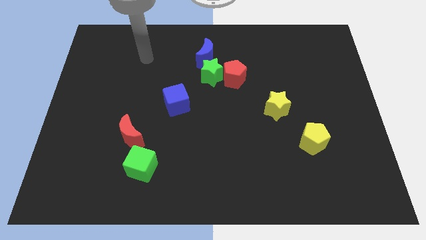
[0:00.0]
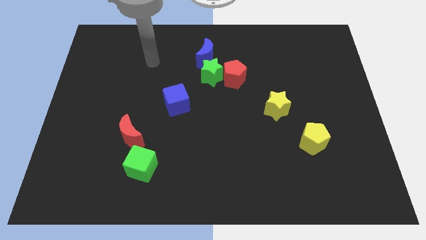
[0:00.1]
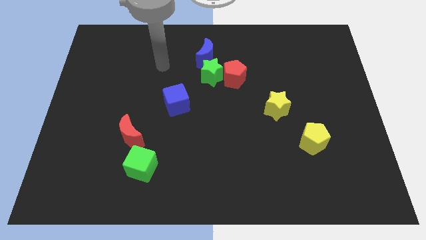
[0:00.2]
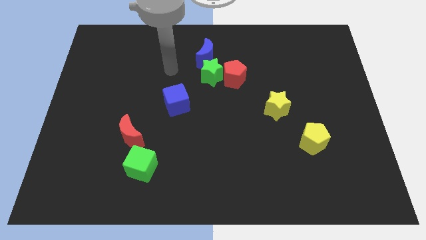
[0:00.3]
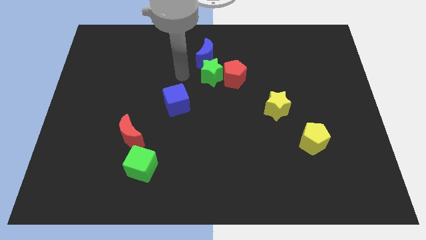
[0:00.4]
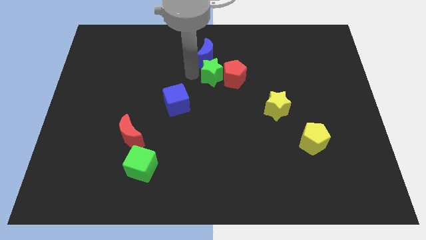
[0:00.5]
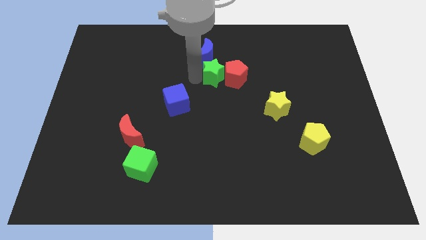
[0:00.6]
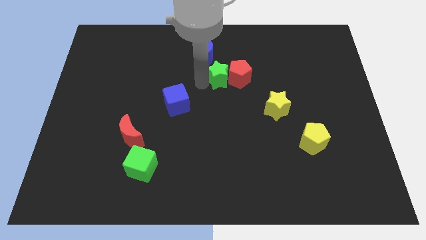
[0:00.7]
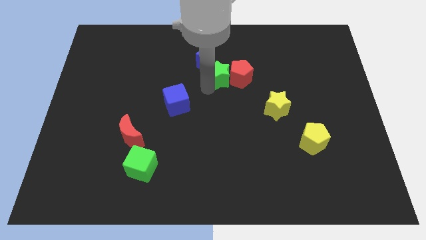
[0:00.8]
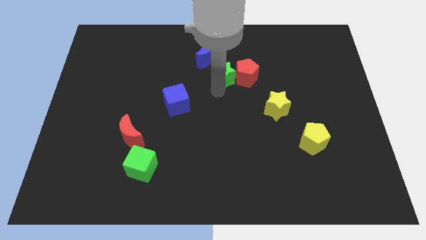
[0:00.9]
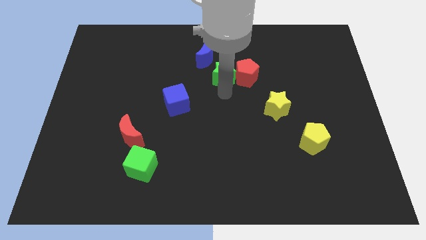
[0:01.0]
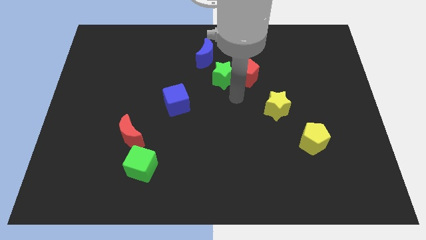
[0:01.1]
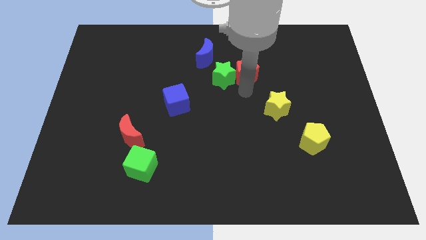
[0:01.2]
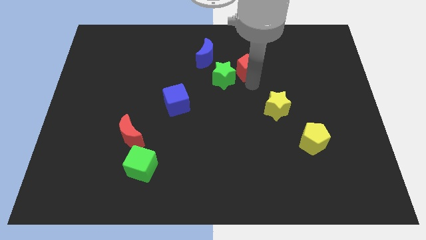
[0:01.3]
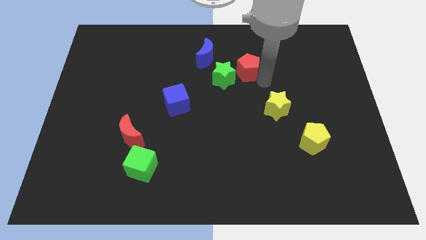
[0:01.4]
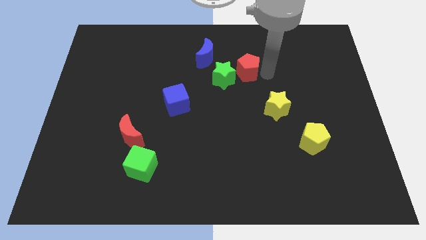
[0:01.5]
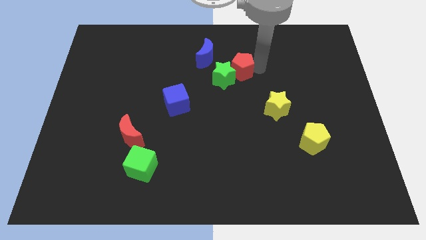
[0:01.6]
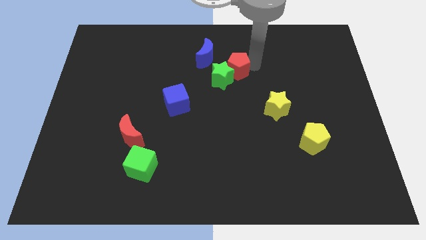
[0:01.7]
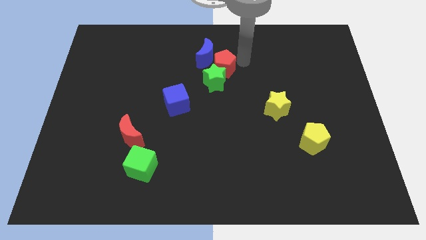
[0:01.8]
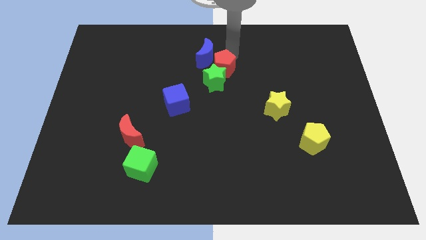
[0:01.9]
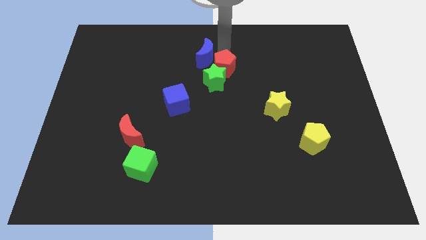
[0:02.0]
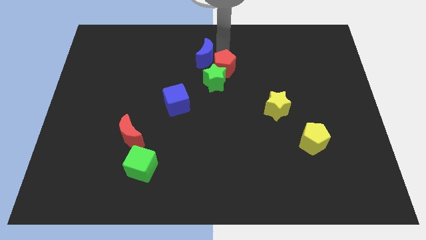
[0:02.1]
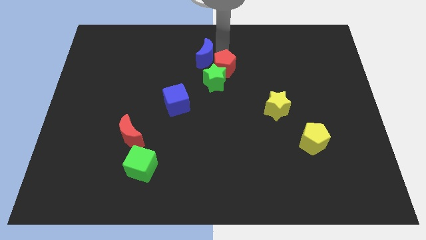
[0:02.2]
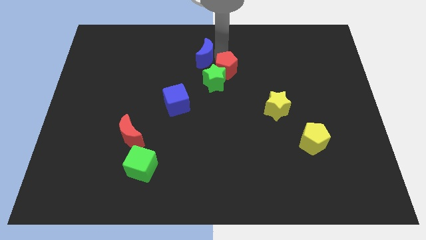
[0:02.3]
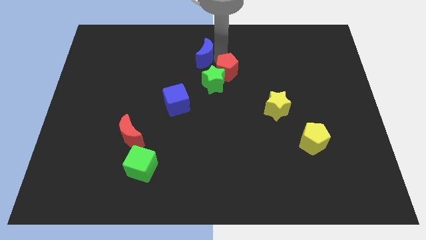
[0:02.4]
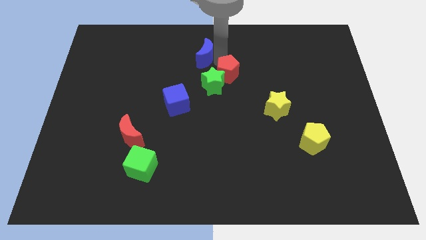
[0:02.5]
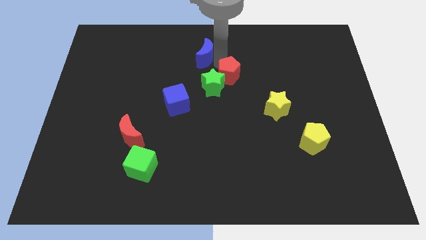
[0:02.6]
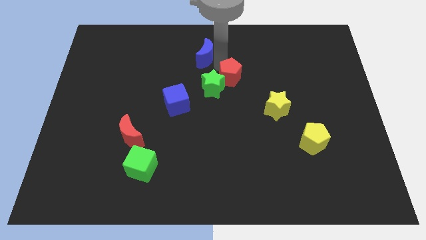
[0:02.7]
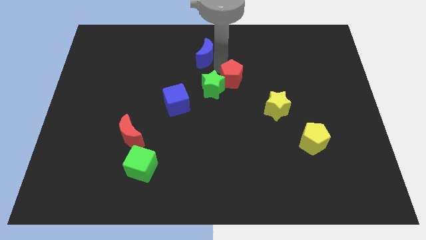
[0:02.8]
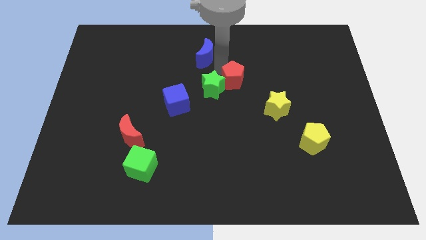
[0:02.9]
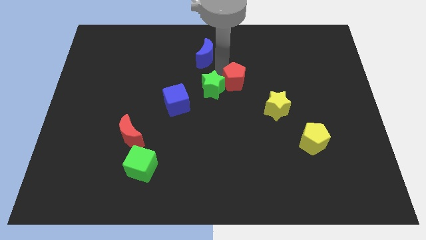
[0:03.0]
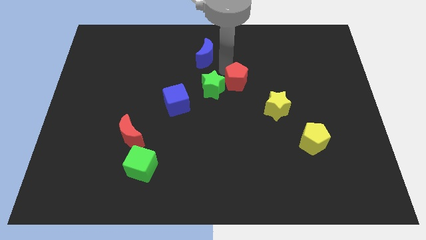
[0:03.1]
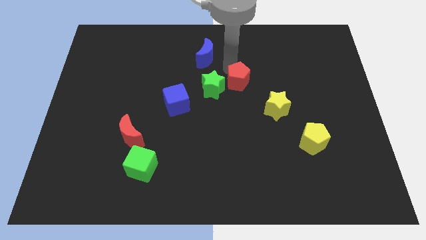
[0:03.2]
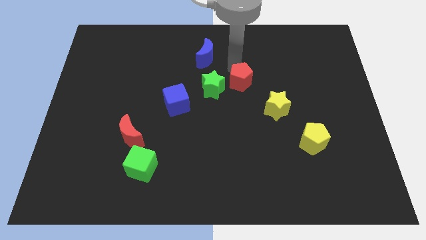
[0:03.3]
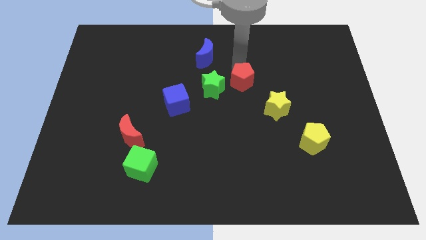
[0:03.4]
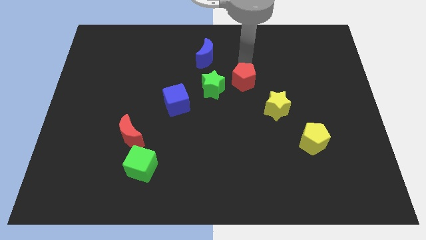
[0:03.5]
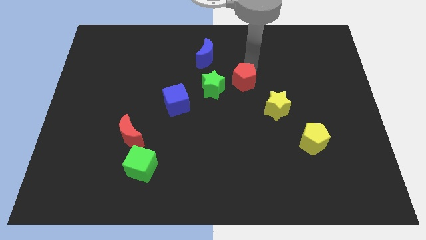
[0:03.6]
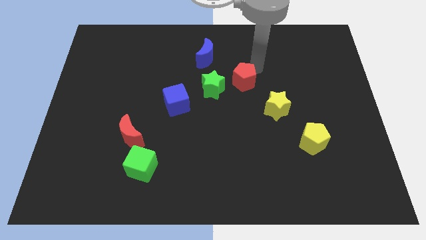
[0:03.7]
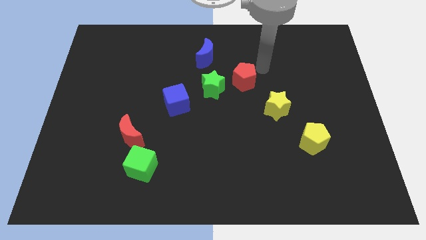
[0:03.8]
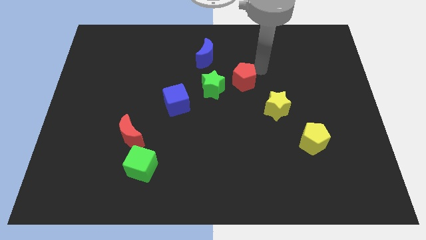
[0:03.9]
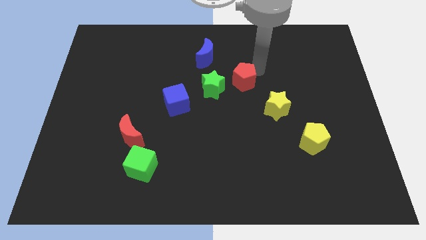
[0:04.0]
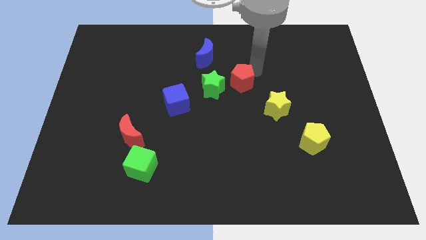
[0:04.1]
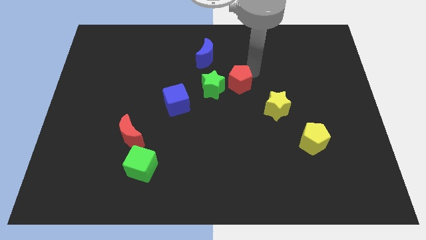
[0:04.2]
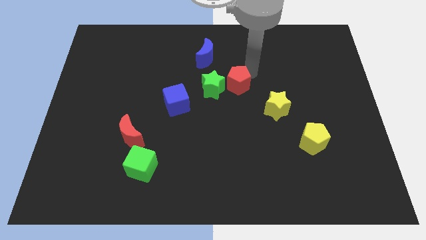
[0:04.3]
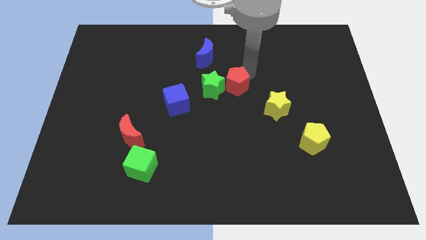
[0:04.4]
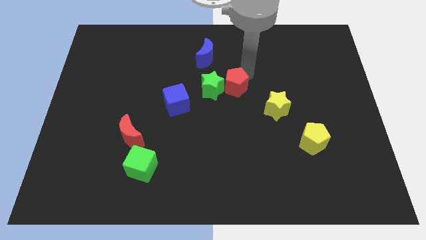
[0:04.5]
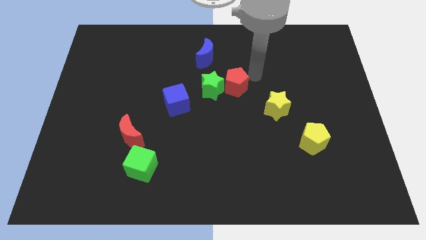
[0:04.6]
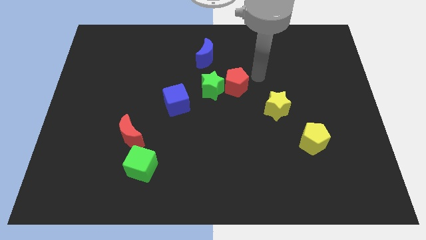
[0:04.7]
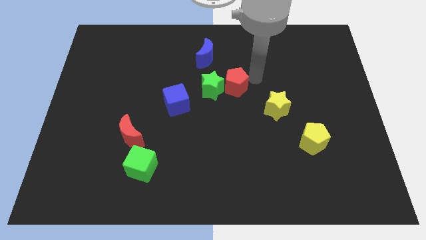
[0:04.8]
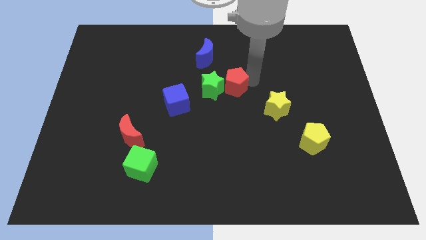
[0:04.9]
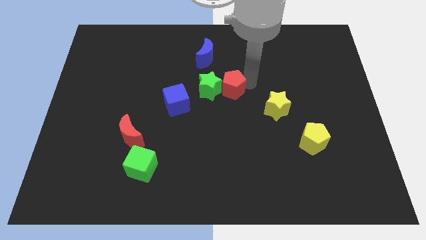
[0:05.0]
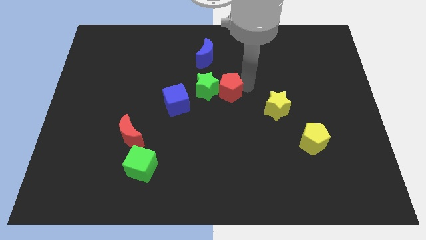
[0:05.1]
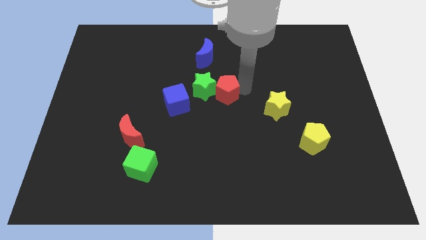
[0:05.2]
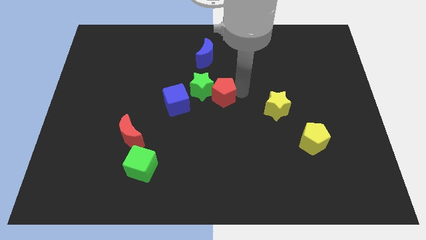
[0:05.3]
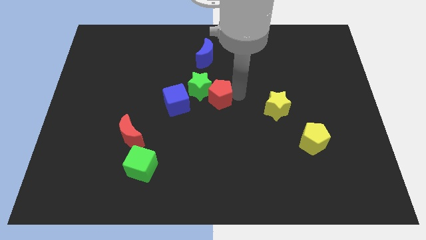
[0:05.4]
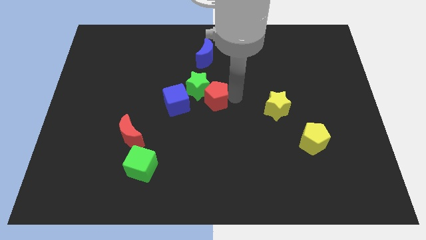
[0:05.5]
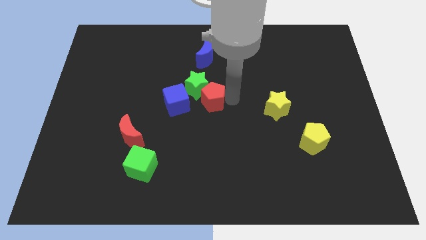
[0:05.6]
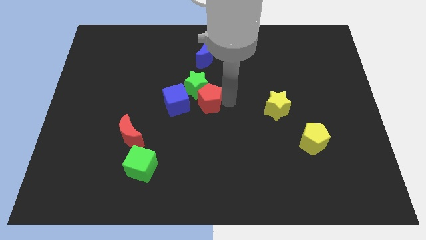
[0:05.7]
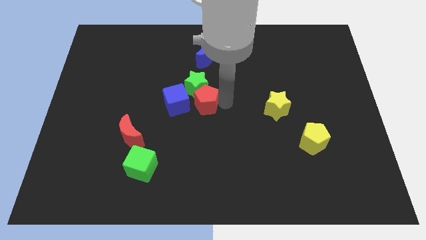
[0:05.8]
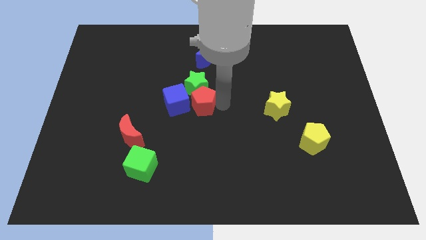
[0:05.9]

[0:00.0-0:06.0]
push the red pentagon to the bottom left side of the green star

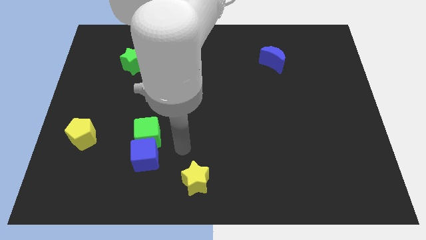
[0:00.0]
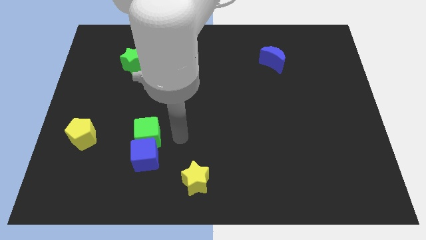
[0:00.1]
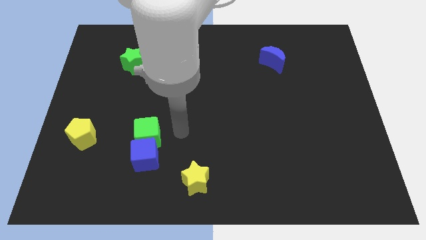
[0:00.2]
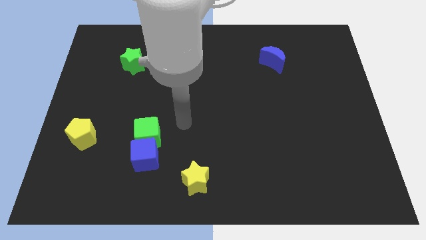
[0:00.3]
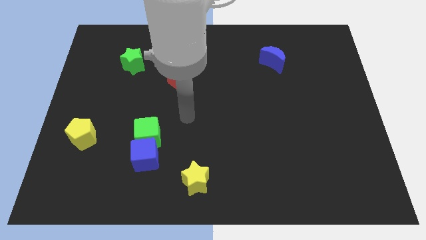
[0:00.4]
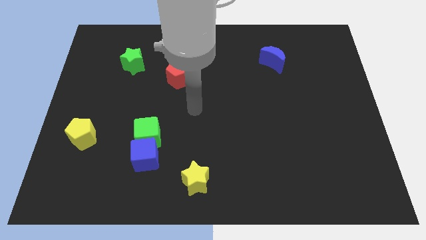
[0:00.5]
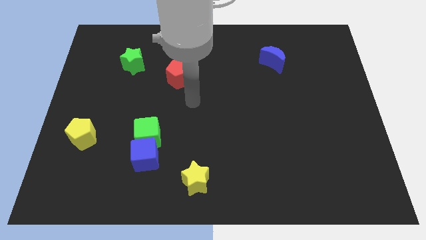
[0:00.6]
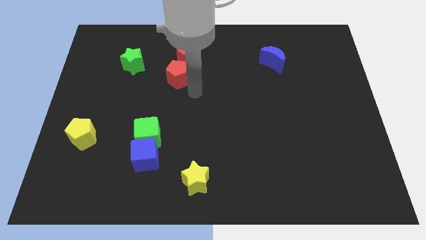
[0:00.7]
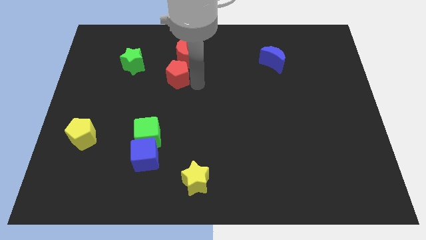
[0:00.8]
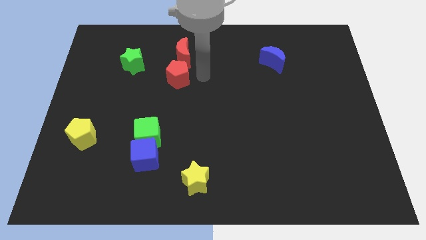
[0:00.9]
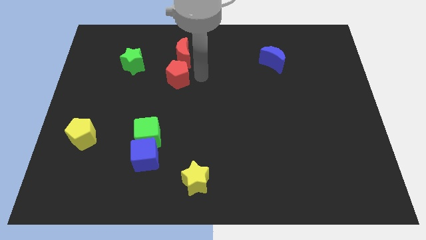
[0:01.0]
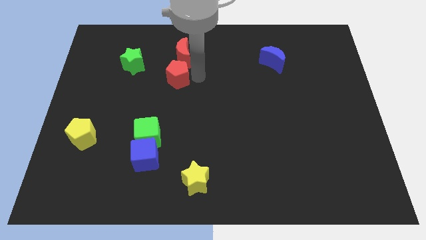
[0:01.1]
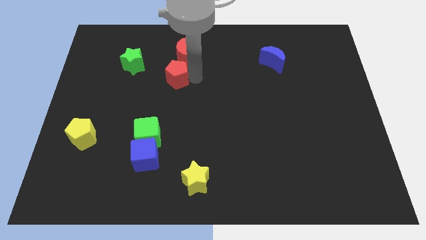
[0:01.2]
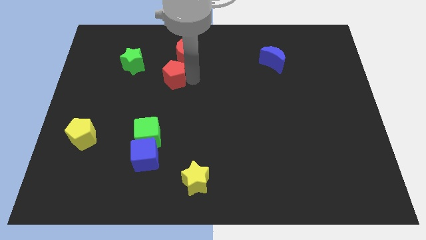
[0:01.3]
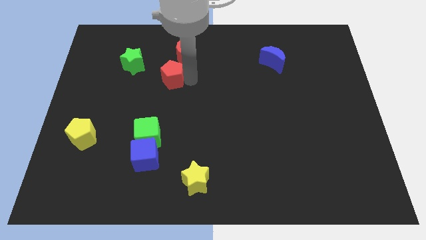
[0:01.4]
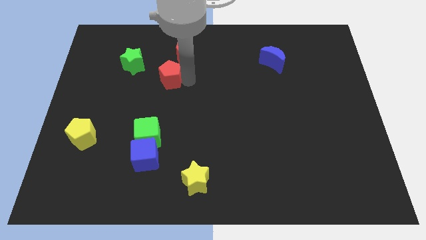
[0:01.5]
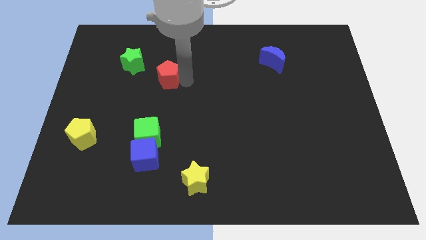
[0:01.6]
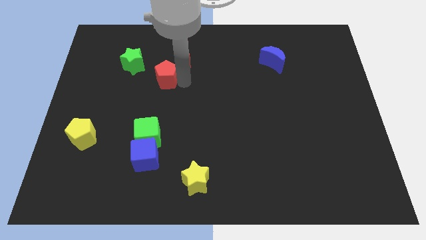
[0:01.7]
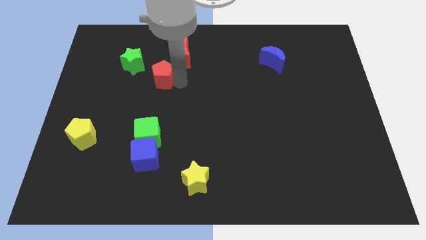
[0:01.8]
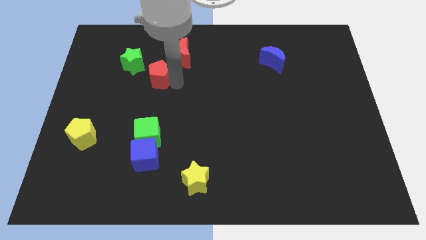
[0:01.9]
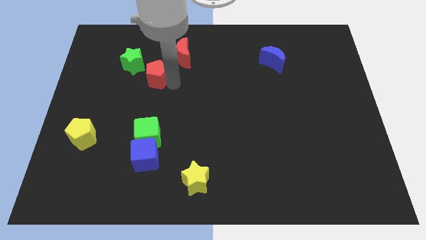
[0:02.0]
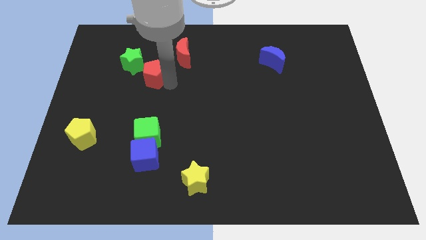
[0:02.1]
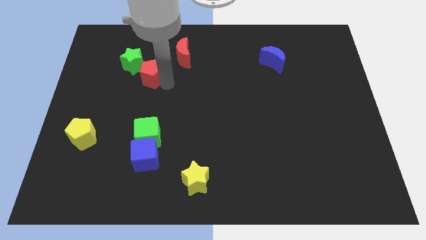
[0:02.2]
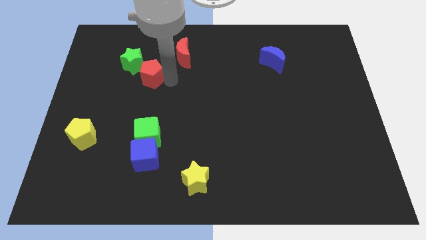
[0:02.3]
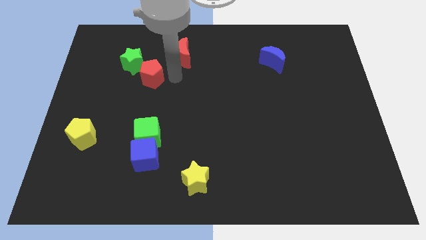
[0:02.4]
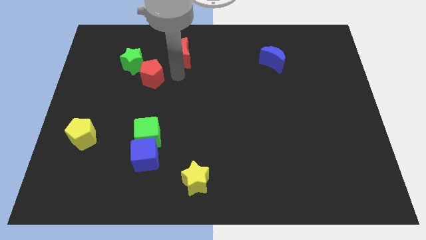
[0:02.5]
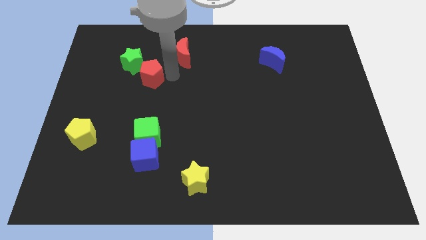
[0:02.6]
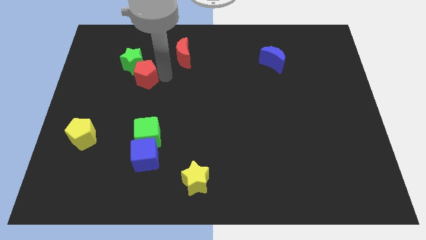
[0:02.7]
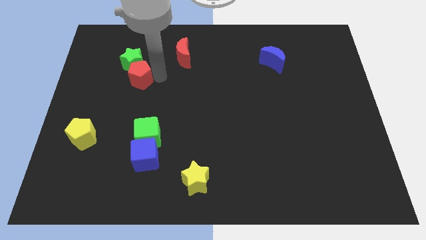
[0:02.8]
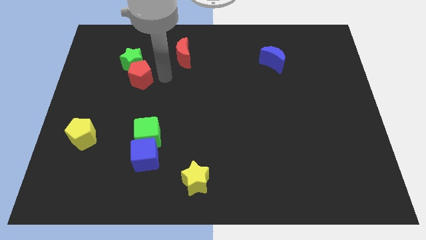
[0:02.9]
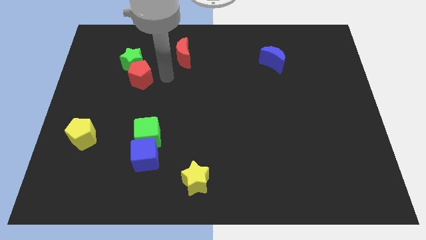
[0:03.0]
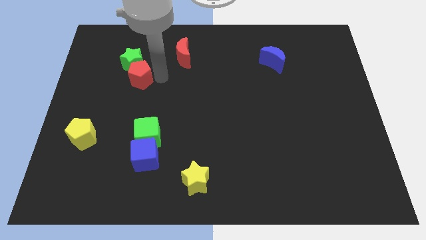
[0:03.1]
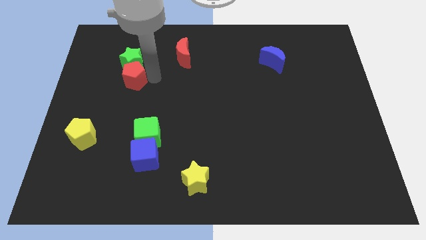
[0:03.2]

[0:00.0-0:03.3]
push the red pentagon to the bottom left of the green star
